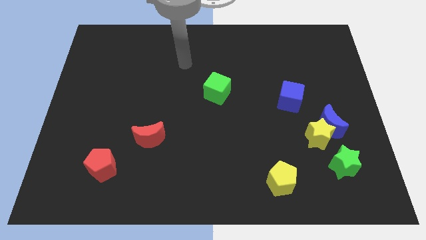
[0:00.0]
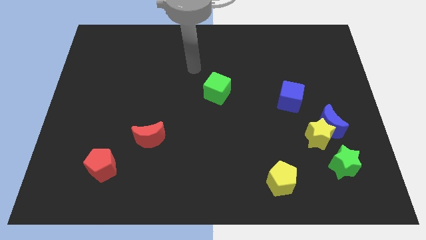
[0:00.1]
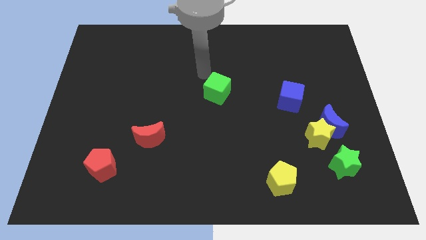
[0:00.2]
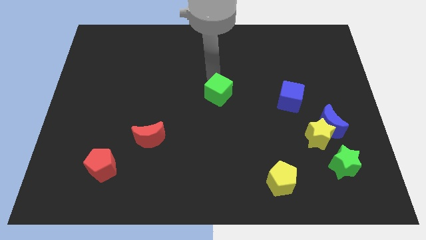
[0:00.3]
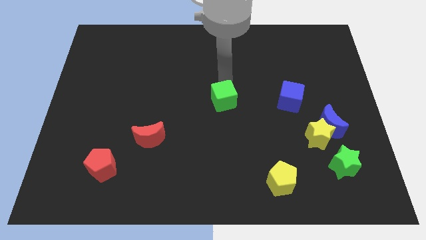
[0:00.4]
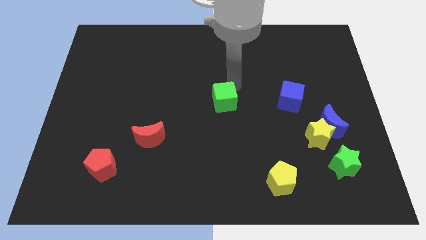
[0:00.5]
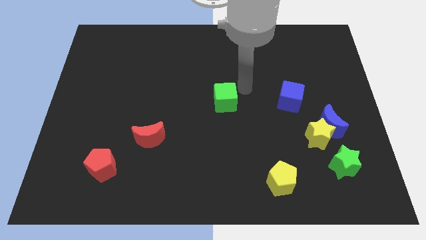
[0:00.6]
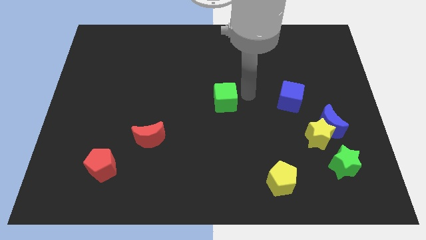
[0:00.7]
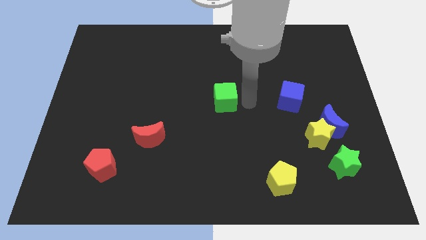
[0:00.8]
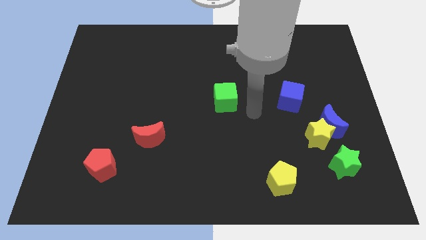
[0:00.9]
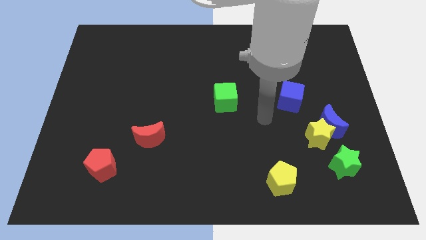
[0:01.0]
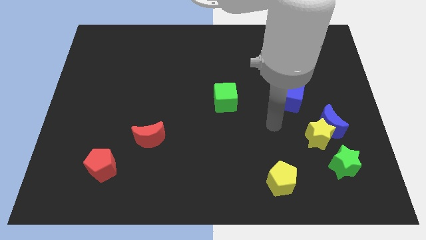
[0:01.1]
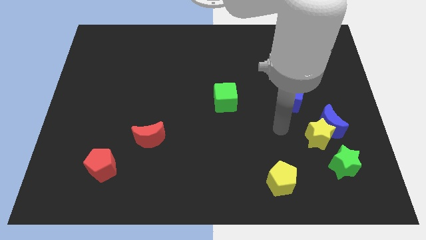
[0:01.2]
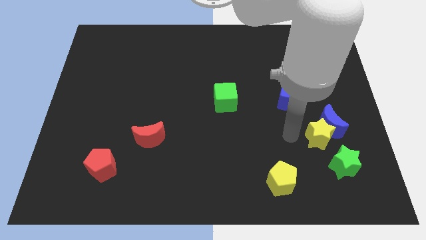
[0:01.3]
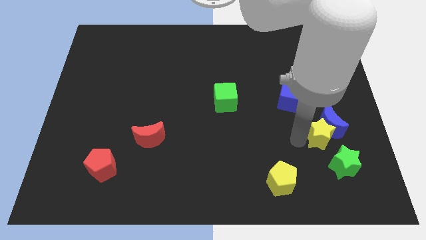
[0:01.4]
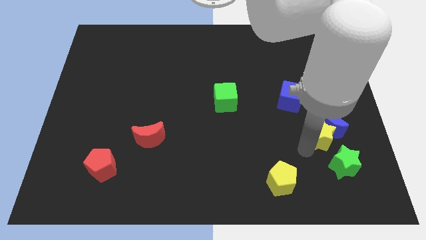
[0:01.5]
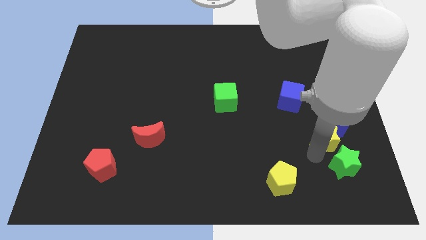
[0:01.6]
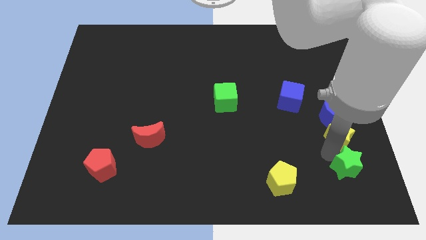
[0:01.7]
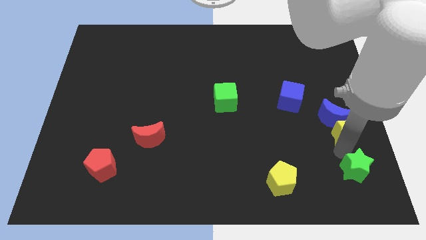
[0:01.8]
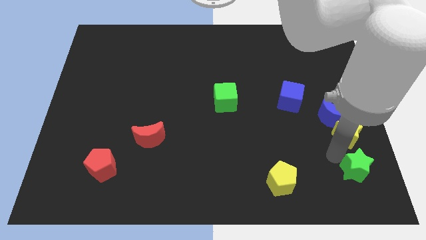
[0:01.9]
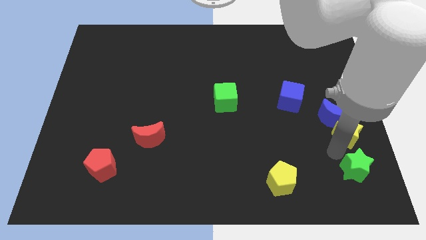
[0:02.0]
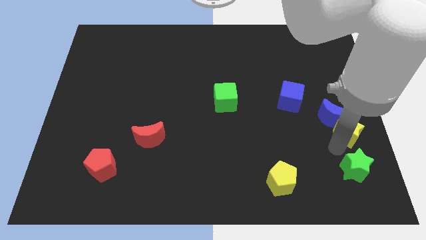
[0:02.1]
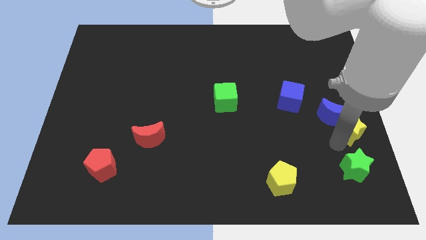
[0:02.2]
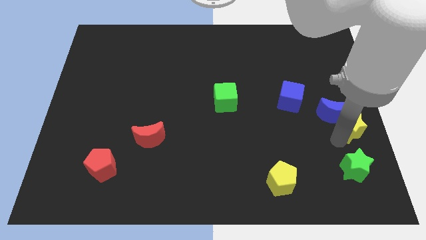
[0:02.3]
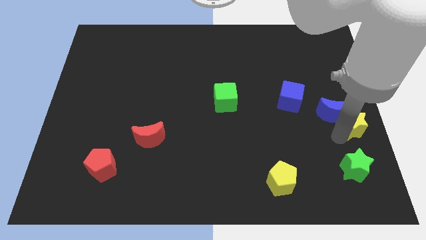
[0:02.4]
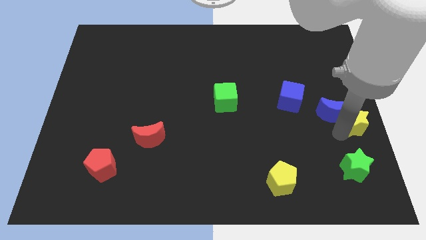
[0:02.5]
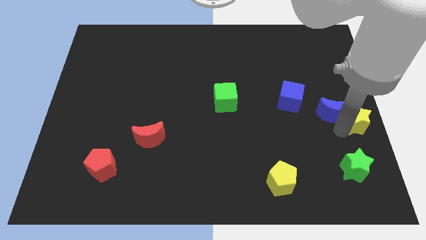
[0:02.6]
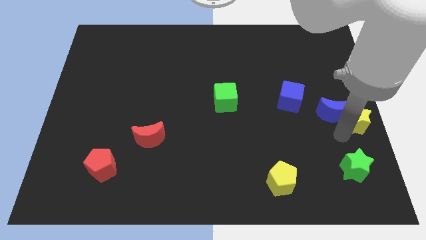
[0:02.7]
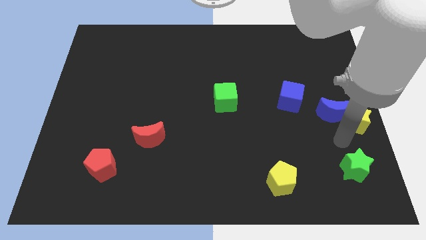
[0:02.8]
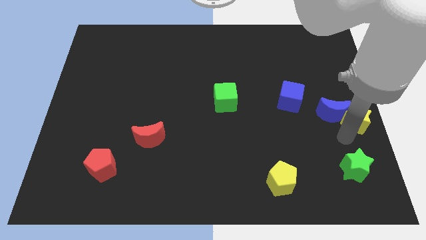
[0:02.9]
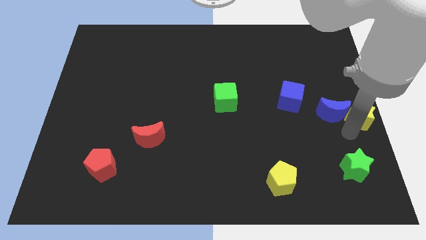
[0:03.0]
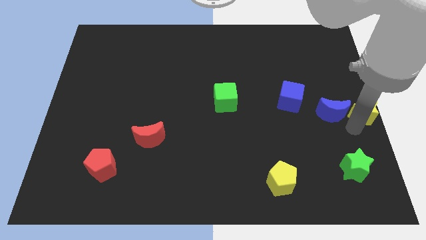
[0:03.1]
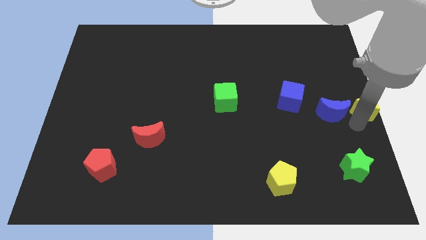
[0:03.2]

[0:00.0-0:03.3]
pull the yellow star apart from the blue moon and green star

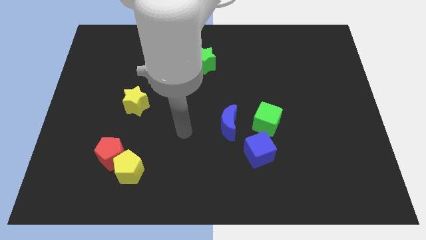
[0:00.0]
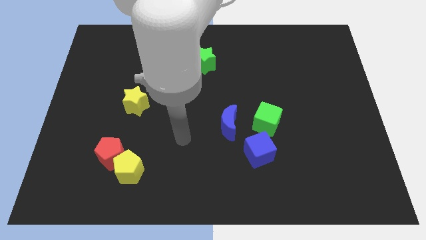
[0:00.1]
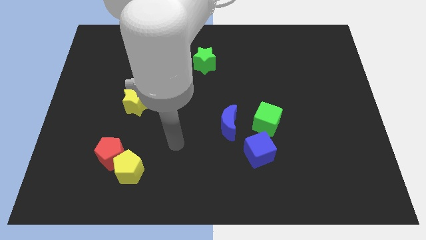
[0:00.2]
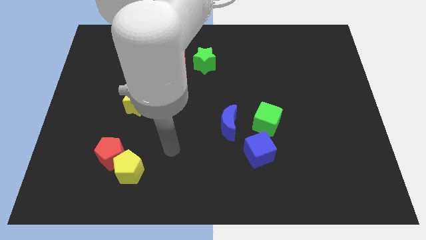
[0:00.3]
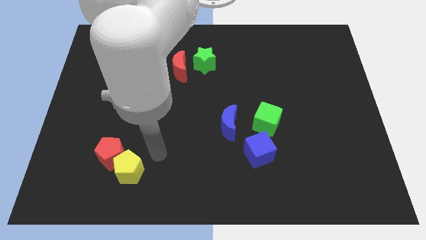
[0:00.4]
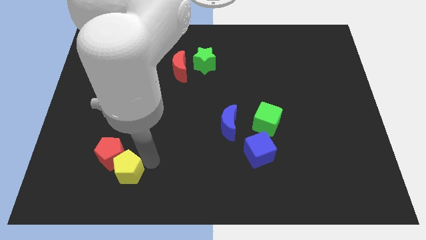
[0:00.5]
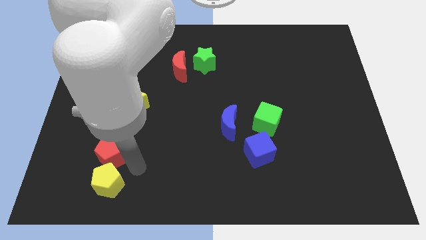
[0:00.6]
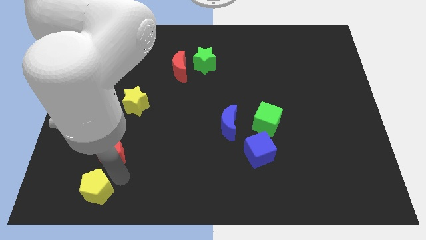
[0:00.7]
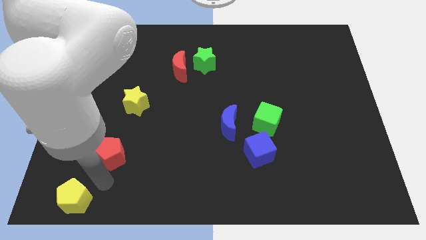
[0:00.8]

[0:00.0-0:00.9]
move the red pentagon away from the yellow pentagon

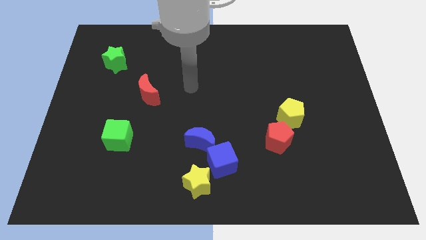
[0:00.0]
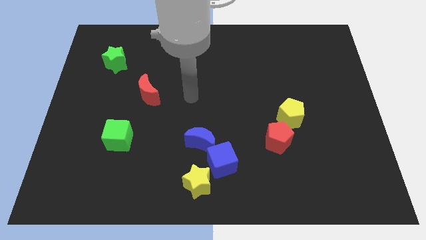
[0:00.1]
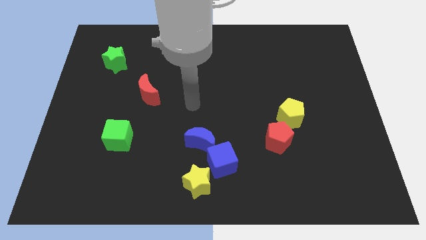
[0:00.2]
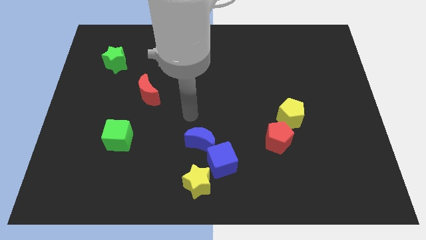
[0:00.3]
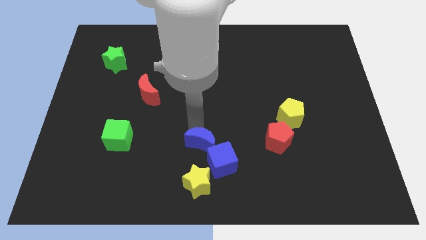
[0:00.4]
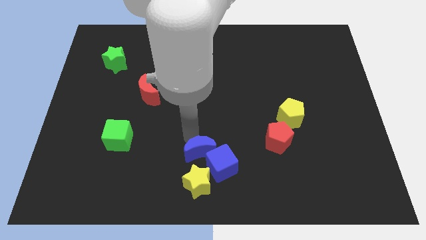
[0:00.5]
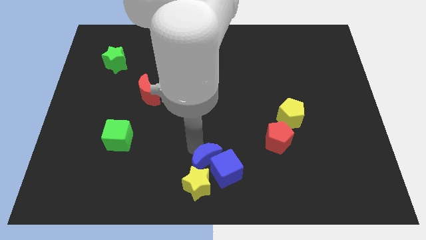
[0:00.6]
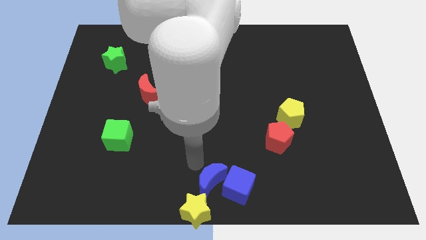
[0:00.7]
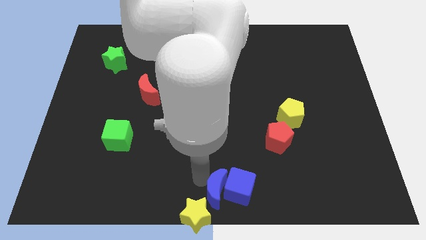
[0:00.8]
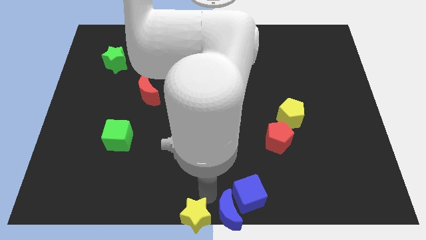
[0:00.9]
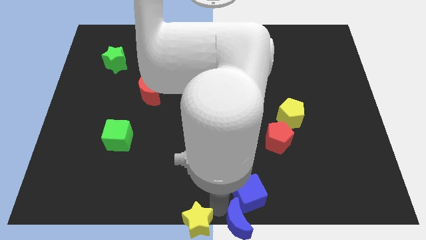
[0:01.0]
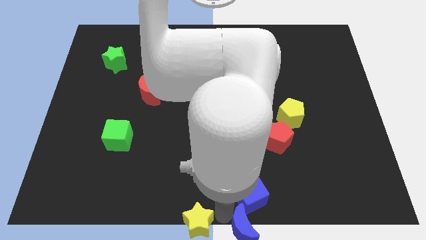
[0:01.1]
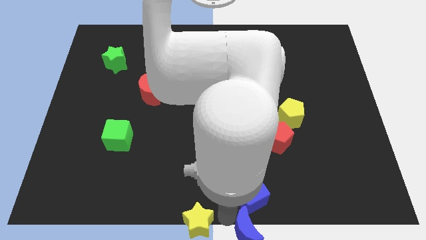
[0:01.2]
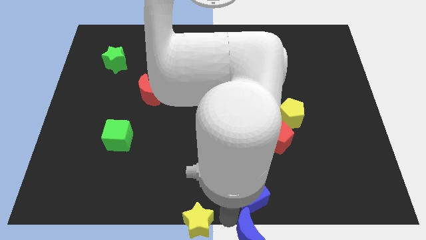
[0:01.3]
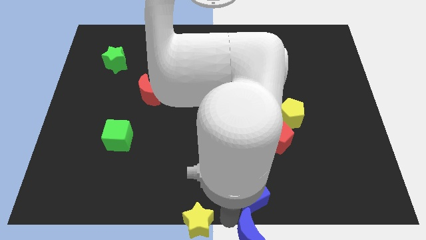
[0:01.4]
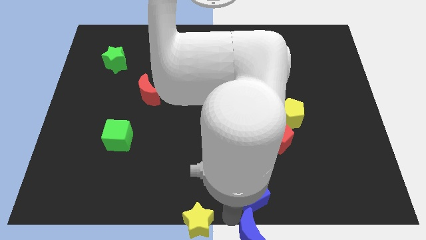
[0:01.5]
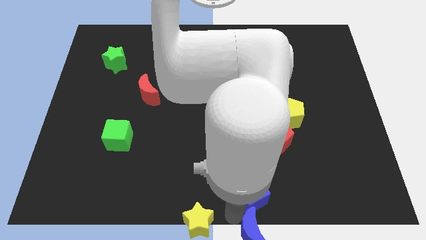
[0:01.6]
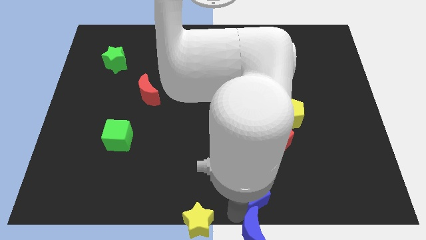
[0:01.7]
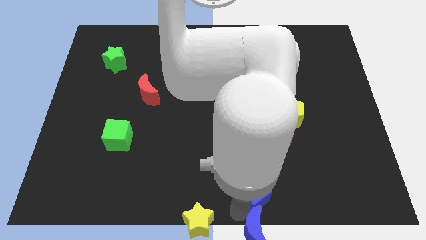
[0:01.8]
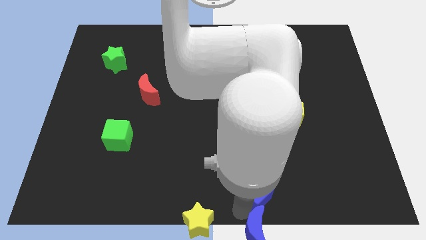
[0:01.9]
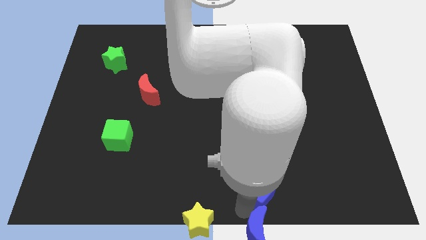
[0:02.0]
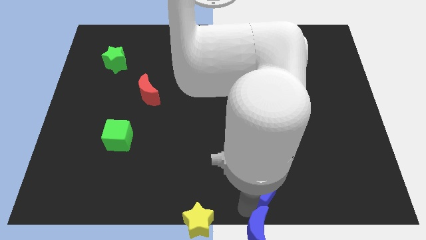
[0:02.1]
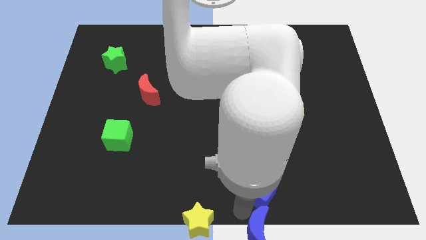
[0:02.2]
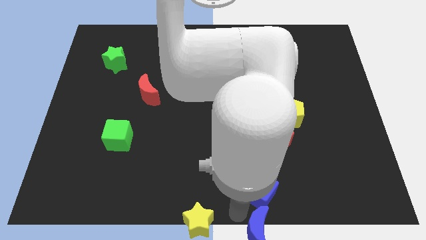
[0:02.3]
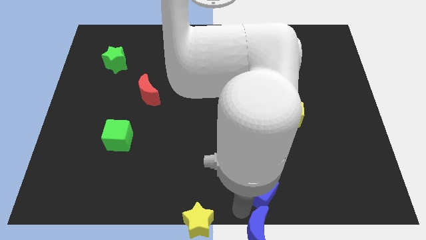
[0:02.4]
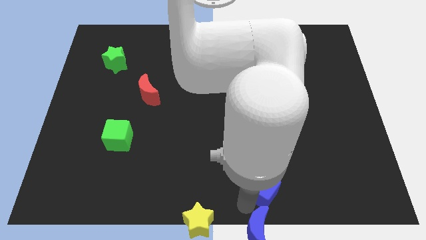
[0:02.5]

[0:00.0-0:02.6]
pull the blue cube apart from the blue moon and yellow star

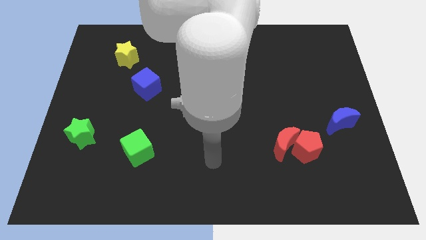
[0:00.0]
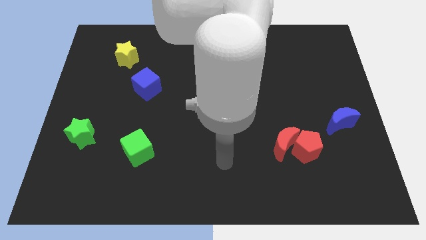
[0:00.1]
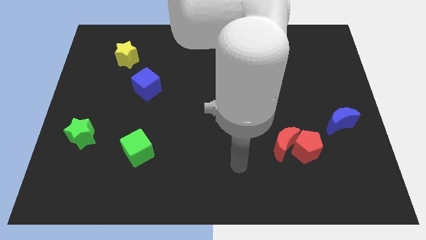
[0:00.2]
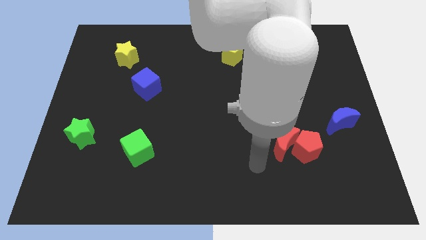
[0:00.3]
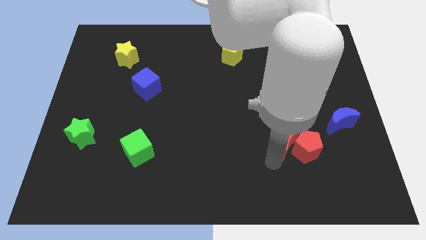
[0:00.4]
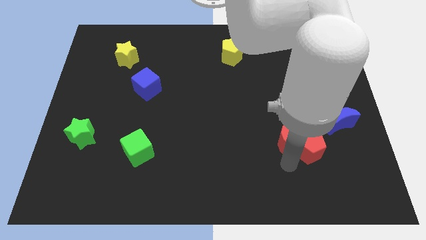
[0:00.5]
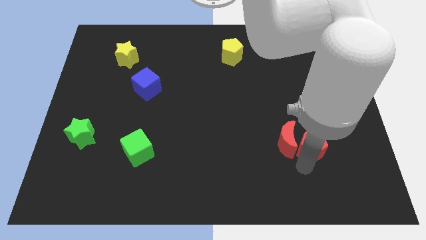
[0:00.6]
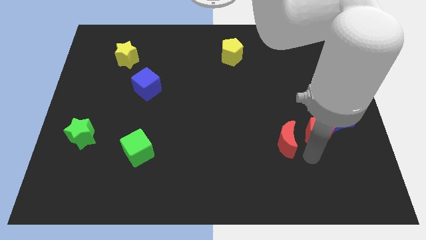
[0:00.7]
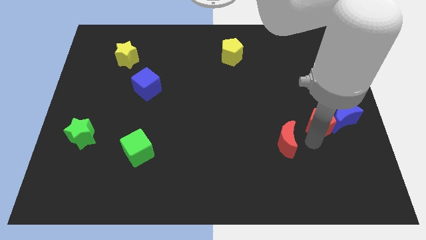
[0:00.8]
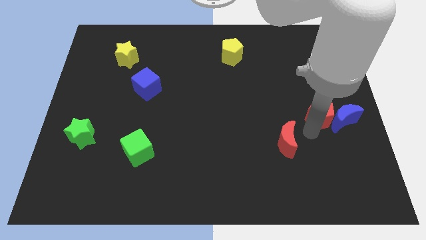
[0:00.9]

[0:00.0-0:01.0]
separate the red moon from the red pentagon

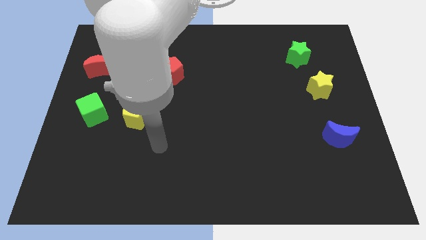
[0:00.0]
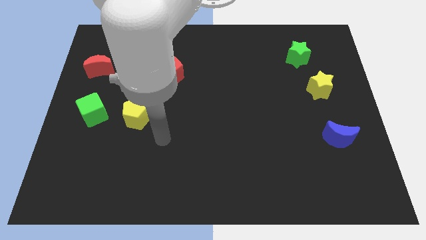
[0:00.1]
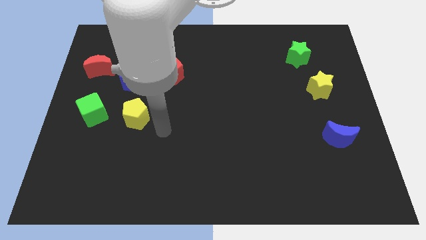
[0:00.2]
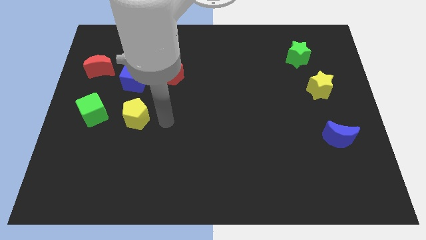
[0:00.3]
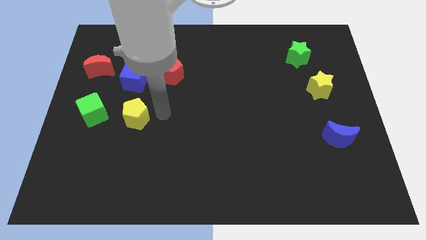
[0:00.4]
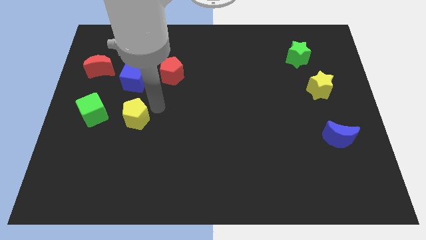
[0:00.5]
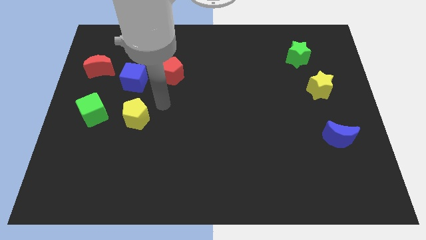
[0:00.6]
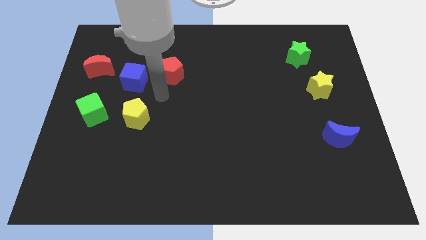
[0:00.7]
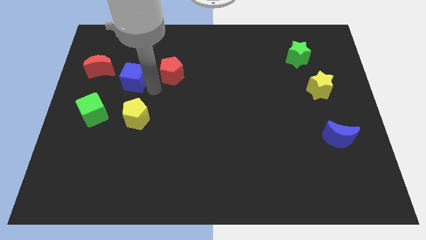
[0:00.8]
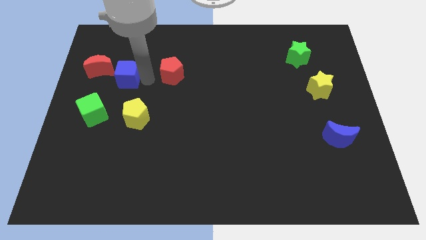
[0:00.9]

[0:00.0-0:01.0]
separate the red pentagon from the blue cube

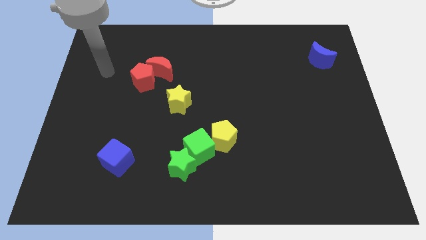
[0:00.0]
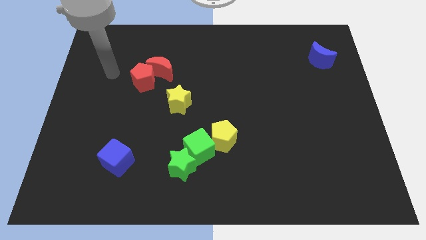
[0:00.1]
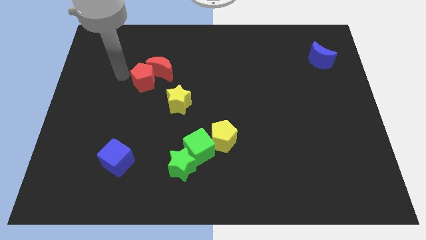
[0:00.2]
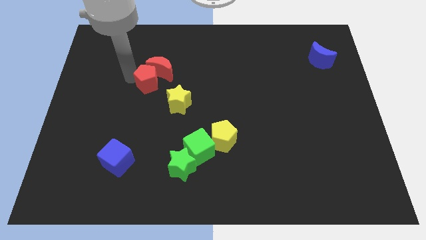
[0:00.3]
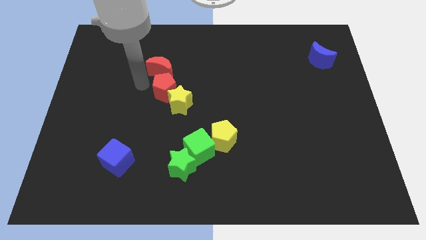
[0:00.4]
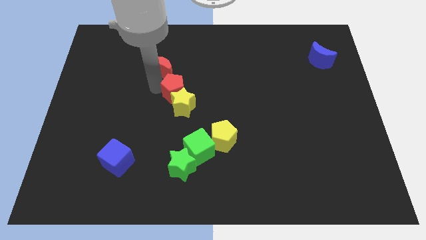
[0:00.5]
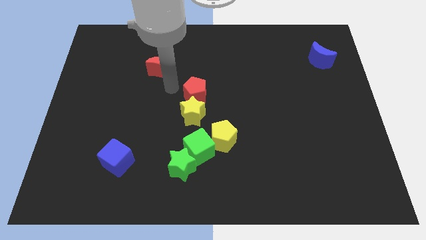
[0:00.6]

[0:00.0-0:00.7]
move the red moon away from the red pentagon
